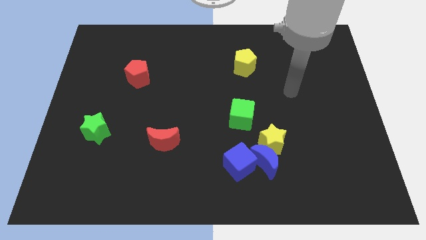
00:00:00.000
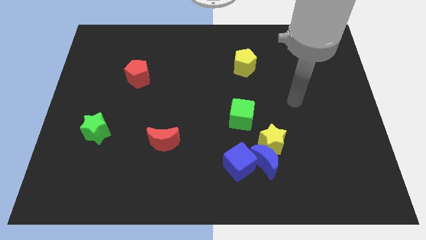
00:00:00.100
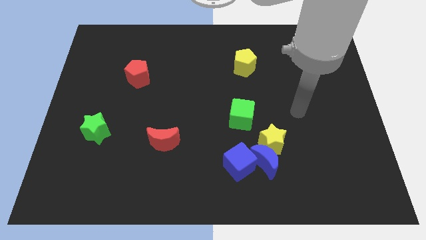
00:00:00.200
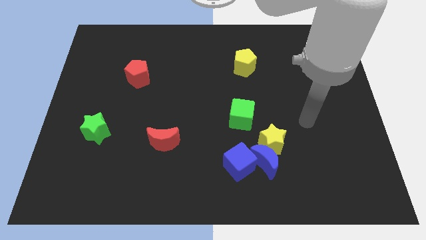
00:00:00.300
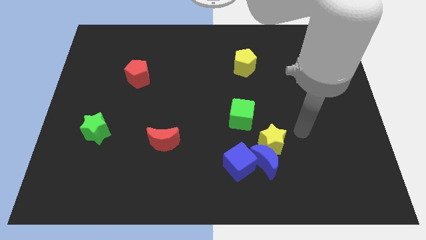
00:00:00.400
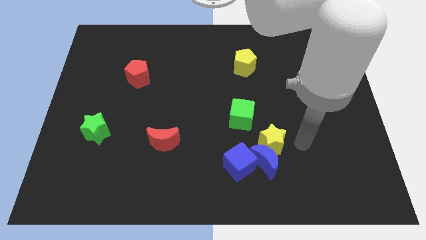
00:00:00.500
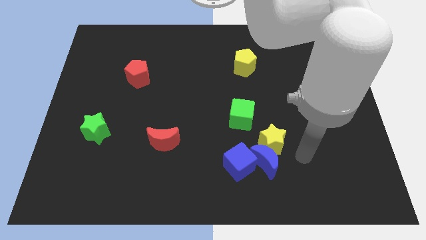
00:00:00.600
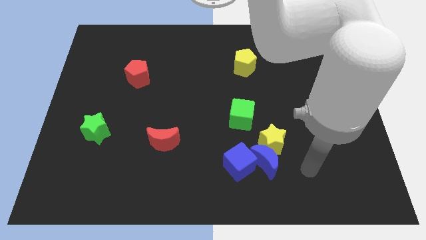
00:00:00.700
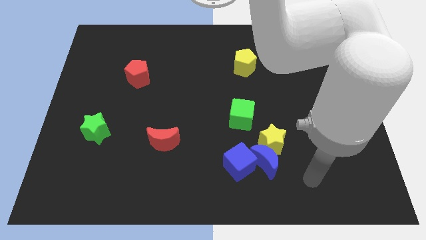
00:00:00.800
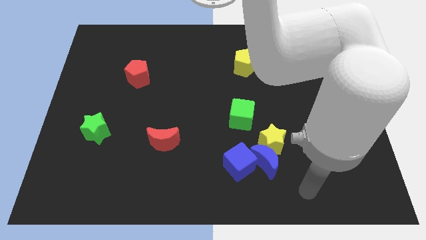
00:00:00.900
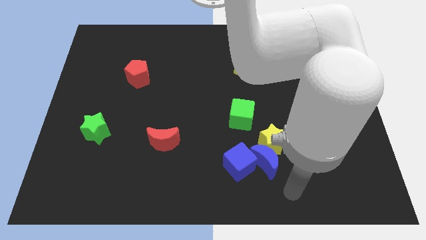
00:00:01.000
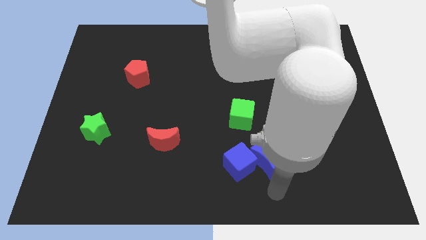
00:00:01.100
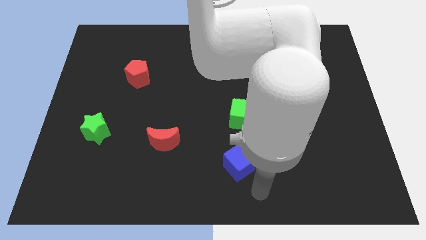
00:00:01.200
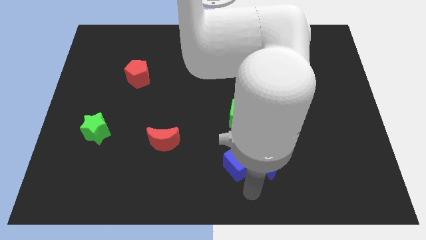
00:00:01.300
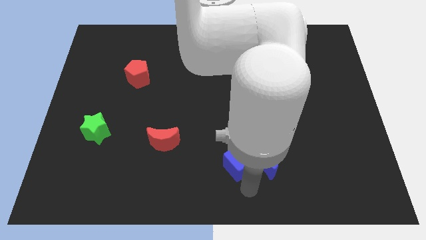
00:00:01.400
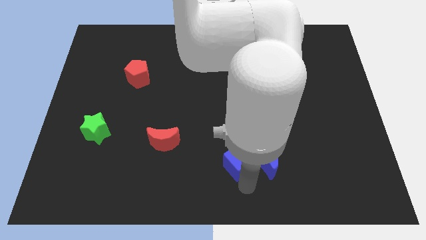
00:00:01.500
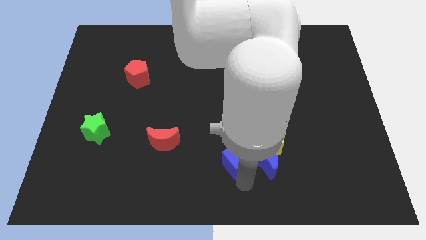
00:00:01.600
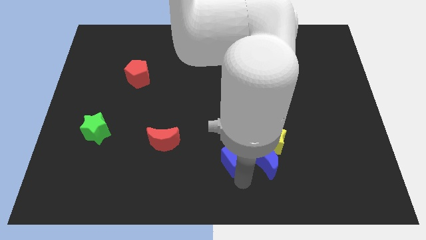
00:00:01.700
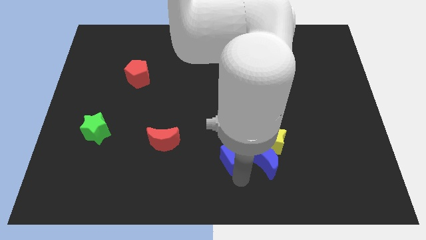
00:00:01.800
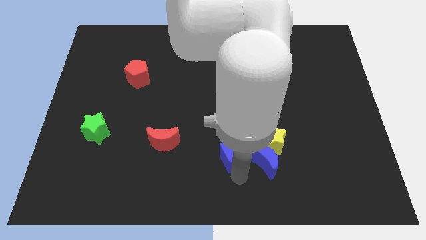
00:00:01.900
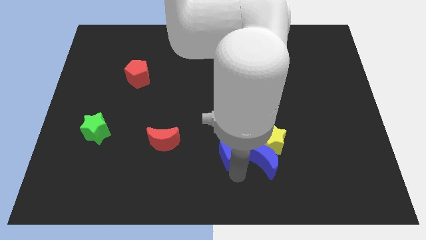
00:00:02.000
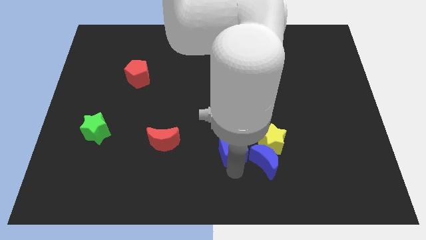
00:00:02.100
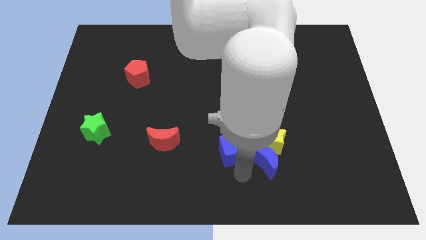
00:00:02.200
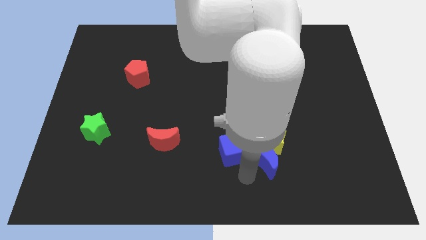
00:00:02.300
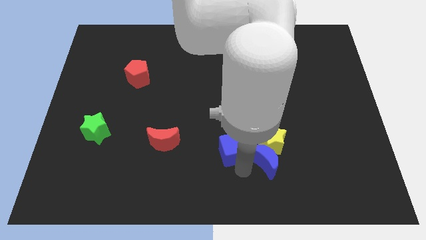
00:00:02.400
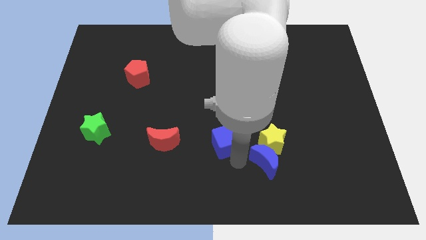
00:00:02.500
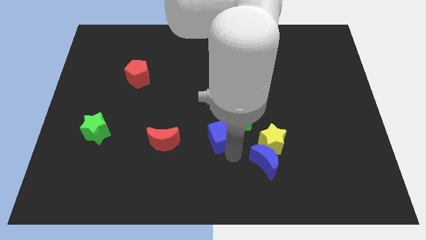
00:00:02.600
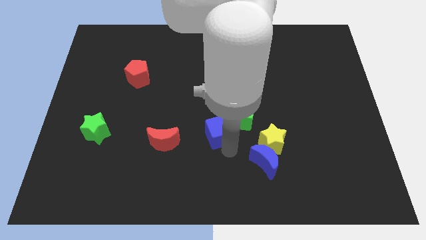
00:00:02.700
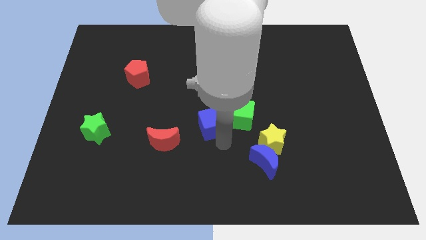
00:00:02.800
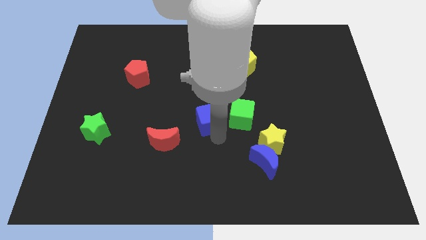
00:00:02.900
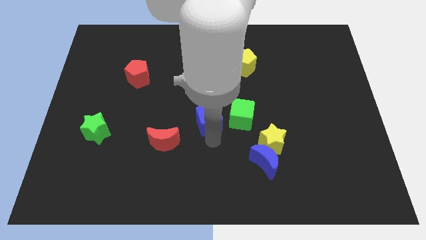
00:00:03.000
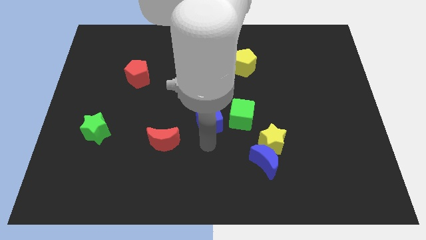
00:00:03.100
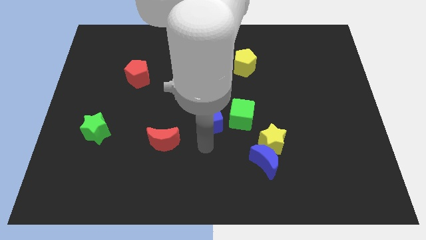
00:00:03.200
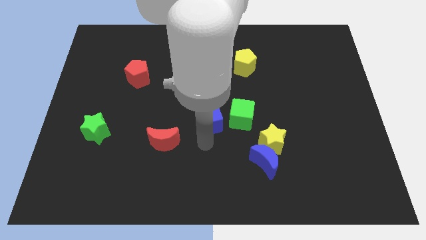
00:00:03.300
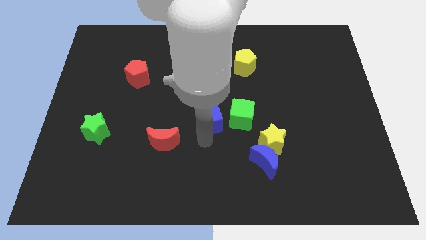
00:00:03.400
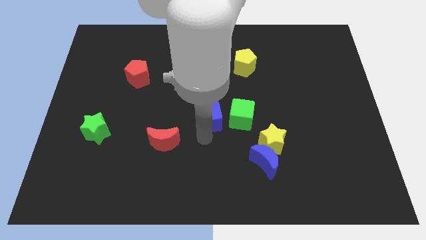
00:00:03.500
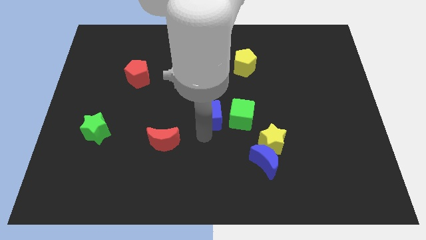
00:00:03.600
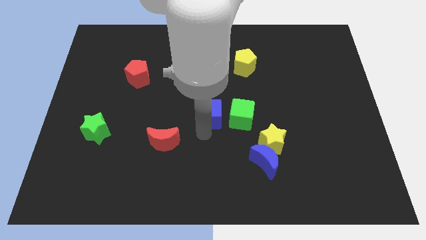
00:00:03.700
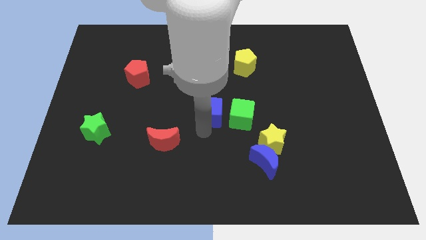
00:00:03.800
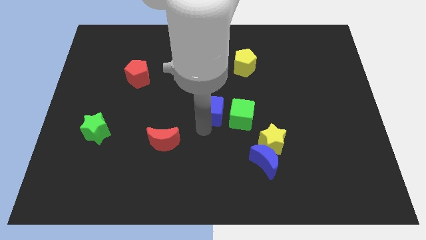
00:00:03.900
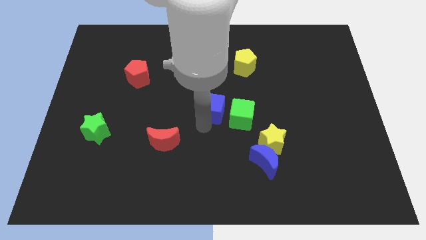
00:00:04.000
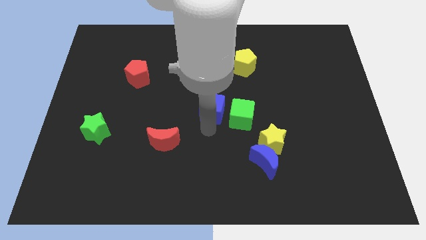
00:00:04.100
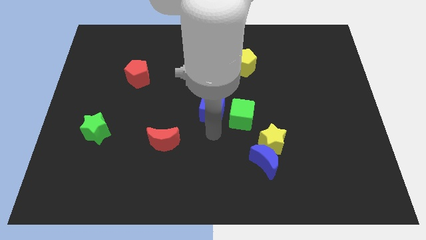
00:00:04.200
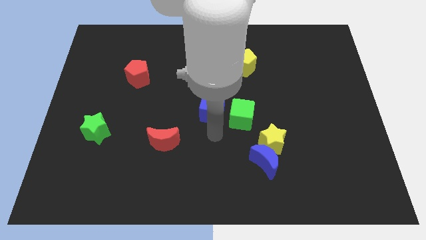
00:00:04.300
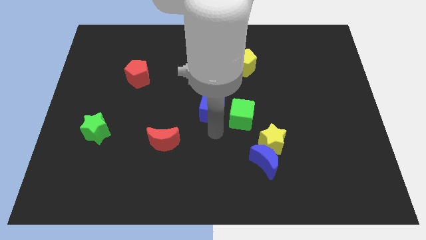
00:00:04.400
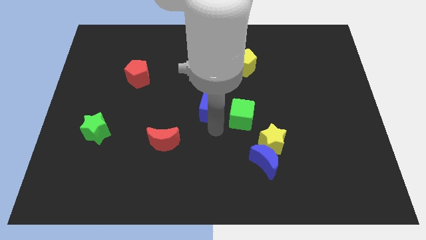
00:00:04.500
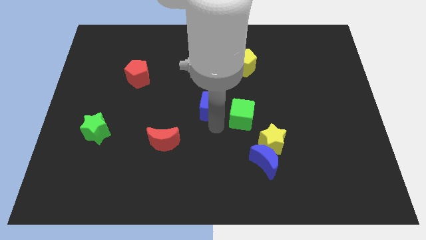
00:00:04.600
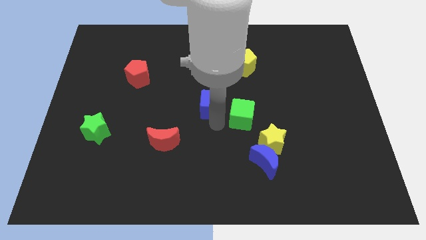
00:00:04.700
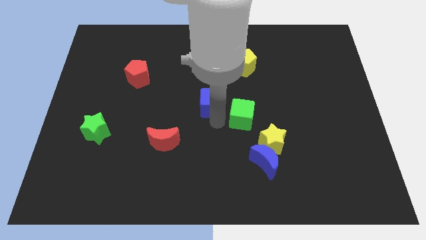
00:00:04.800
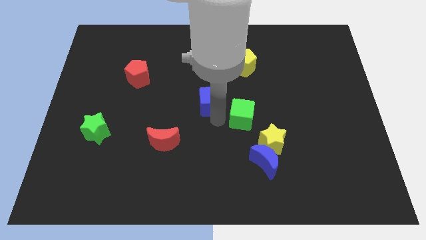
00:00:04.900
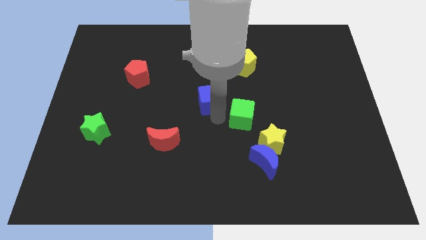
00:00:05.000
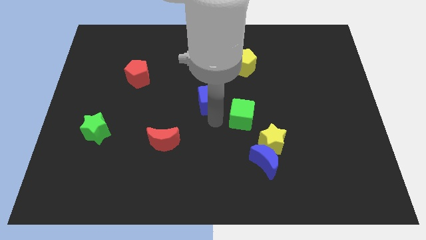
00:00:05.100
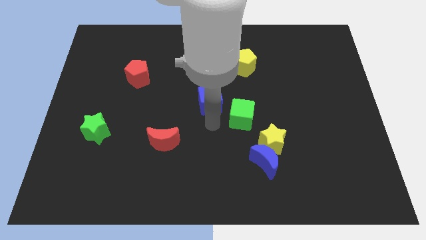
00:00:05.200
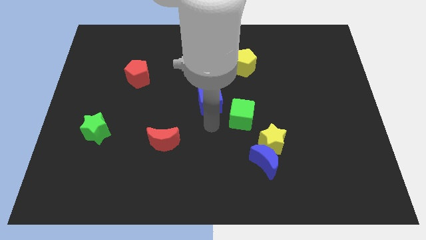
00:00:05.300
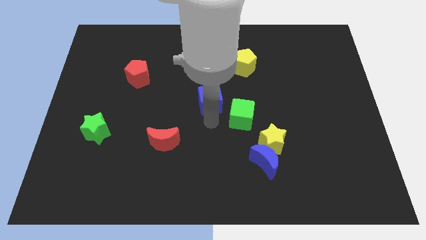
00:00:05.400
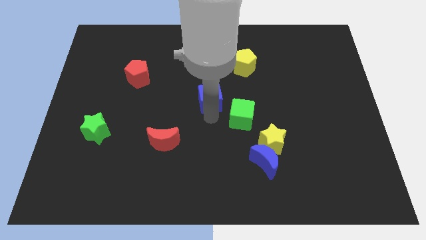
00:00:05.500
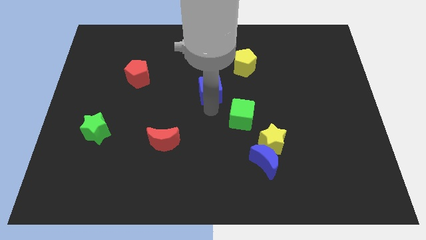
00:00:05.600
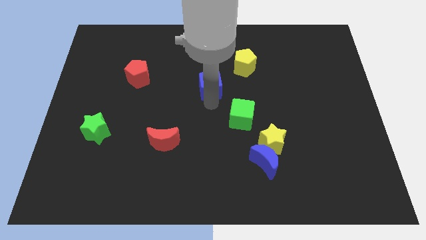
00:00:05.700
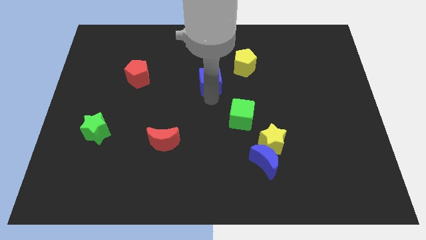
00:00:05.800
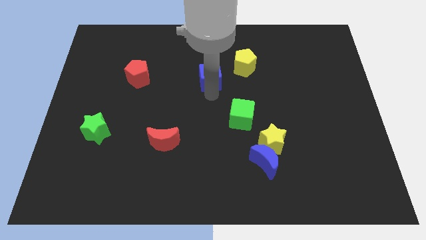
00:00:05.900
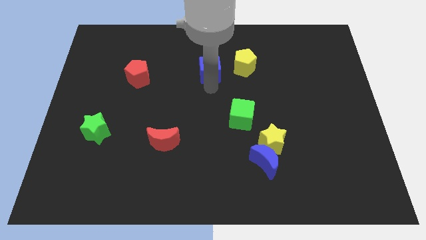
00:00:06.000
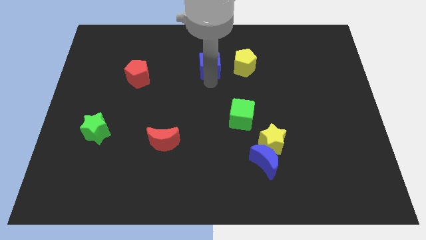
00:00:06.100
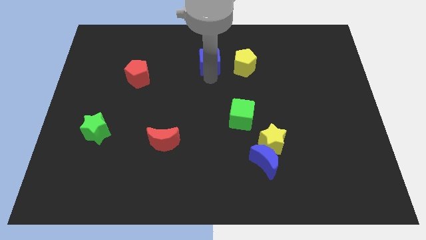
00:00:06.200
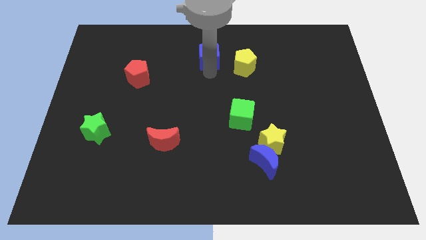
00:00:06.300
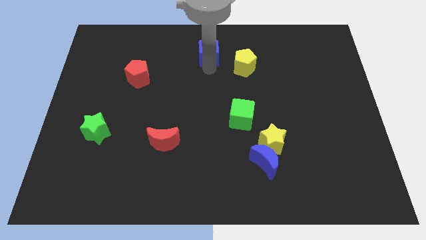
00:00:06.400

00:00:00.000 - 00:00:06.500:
slide the blue cube to the top

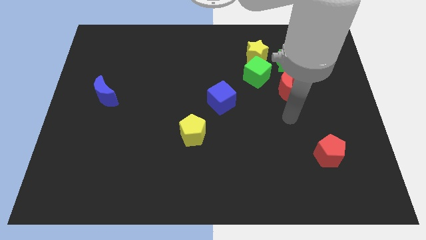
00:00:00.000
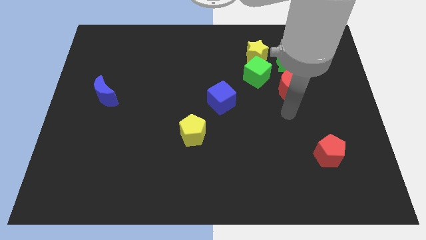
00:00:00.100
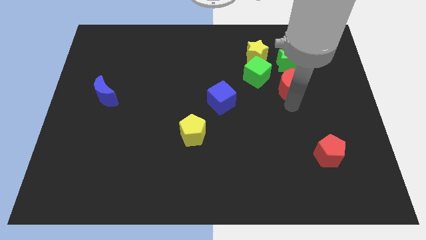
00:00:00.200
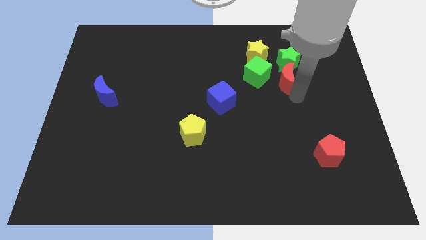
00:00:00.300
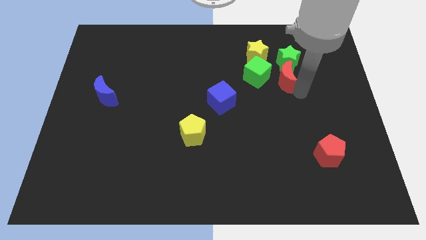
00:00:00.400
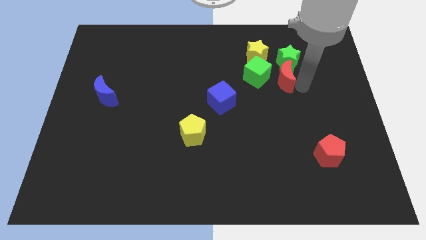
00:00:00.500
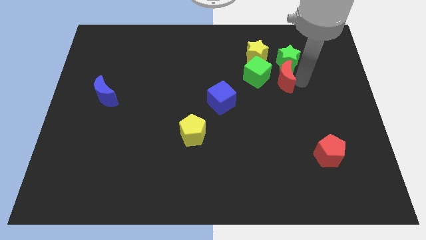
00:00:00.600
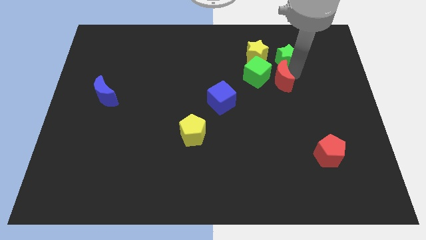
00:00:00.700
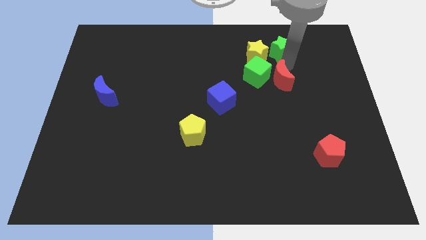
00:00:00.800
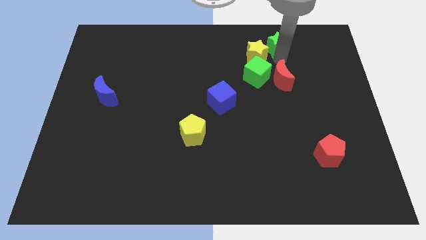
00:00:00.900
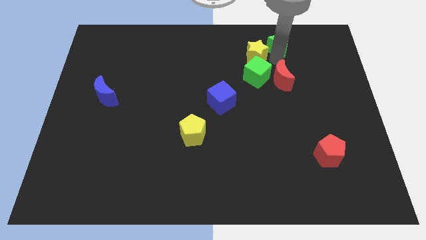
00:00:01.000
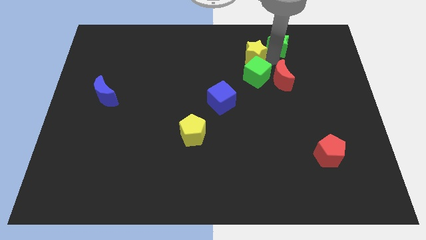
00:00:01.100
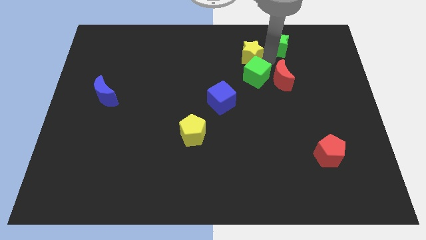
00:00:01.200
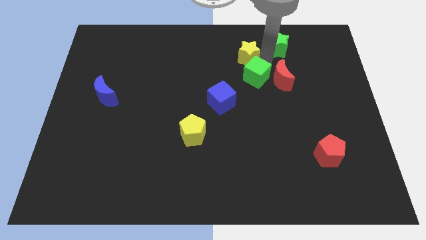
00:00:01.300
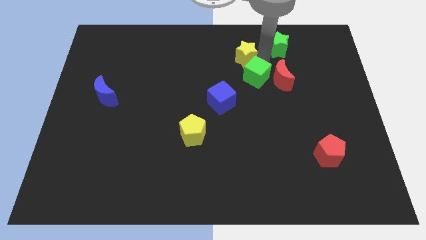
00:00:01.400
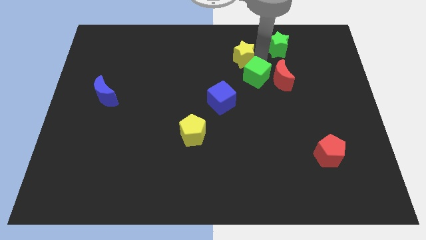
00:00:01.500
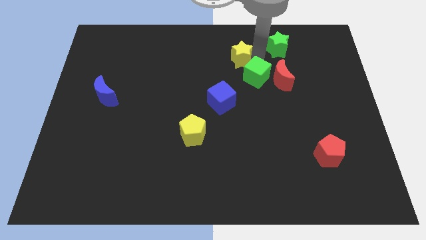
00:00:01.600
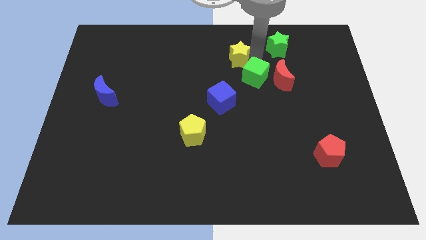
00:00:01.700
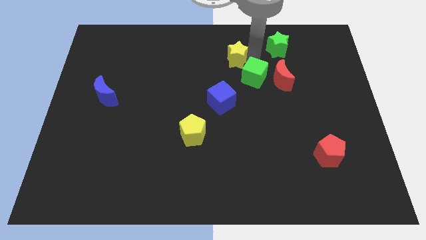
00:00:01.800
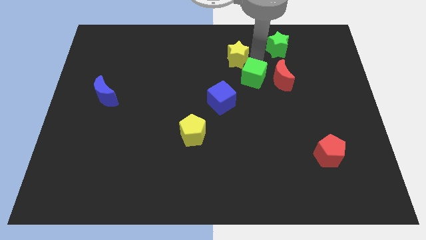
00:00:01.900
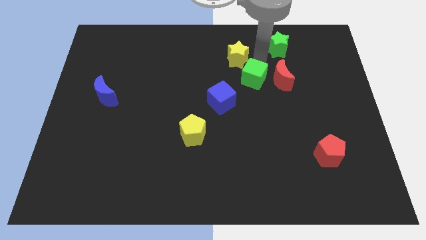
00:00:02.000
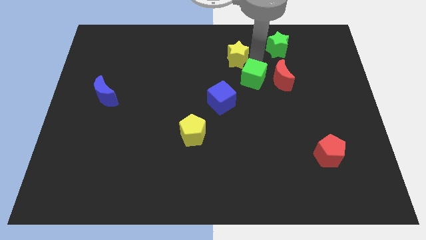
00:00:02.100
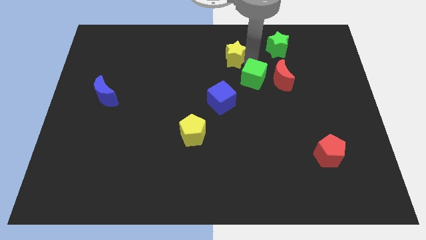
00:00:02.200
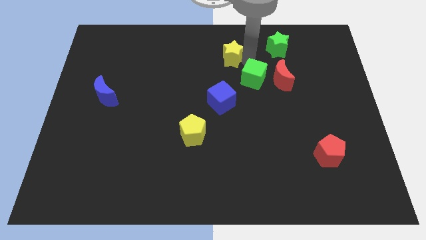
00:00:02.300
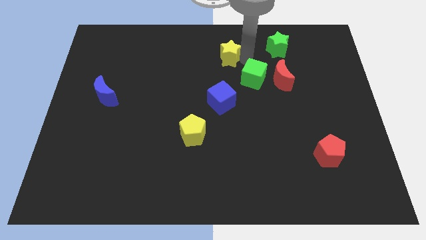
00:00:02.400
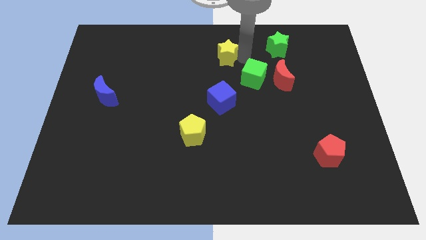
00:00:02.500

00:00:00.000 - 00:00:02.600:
move the yellow star to the top side
